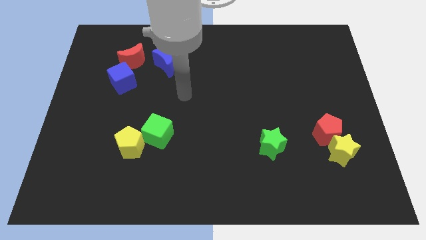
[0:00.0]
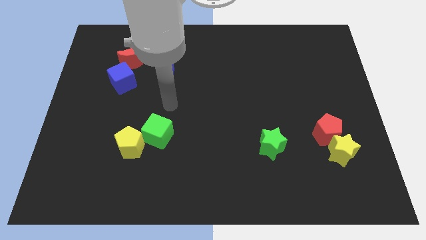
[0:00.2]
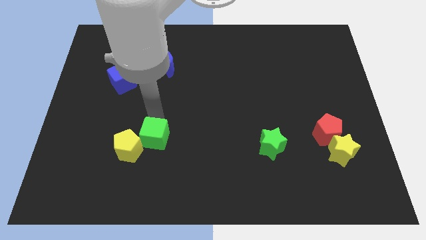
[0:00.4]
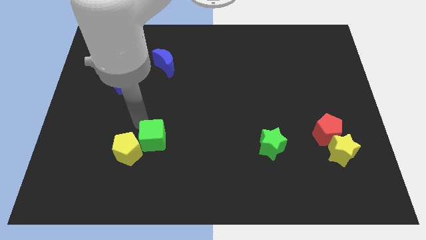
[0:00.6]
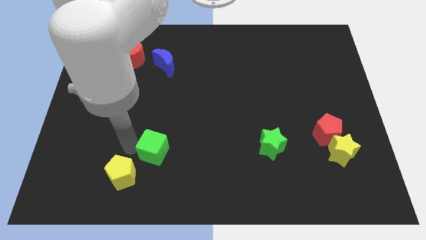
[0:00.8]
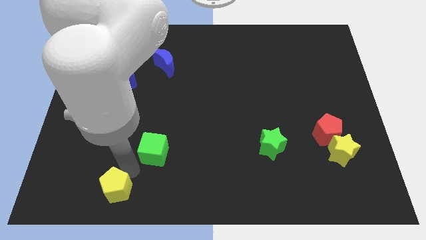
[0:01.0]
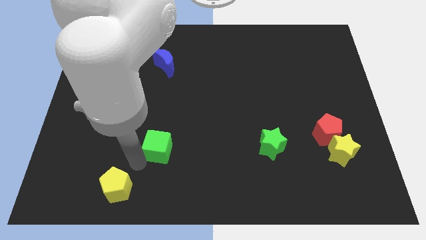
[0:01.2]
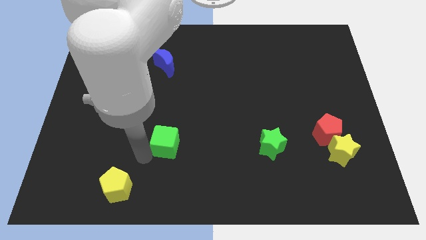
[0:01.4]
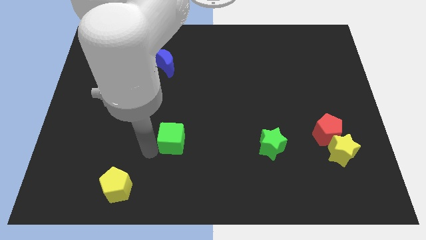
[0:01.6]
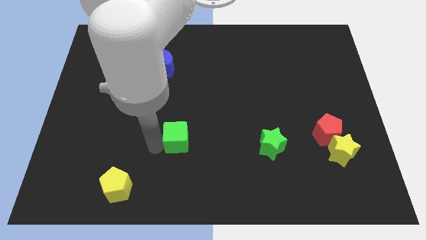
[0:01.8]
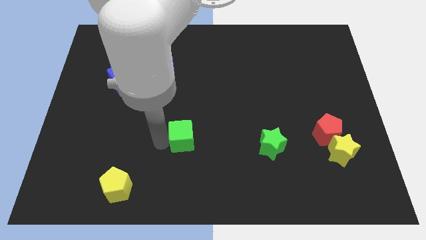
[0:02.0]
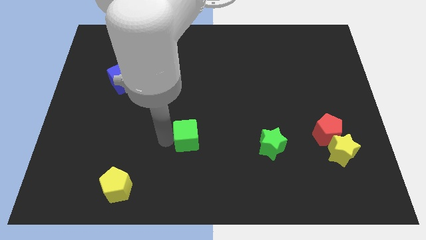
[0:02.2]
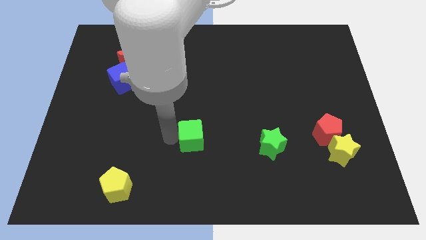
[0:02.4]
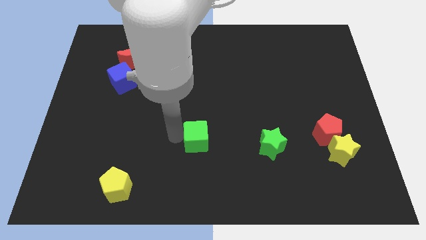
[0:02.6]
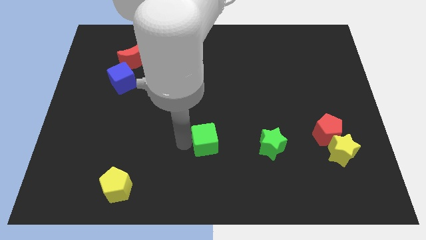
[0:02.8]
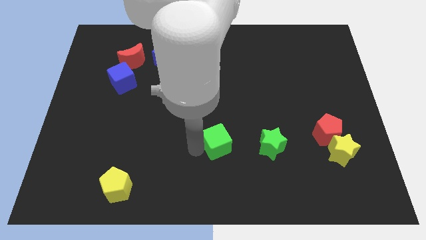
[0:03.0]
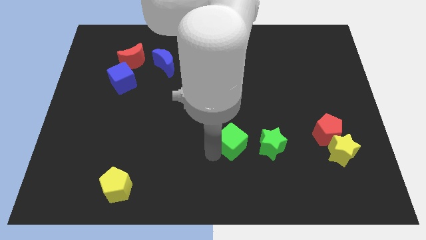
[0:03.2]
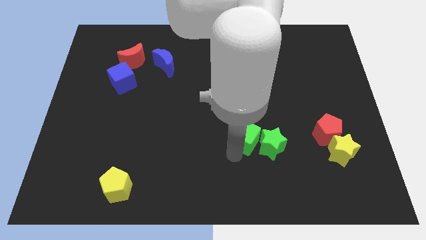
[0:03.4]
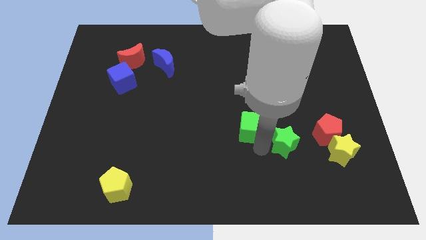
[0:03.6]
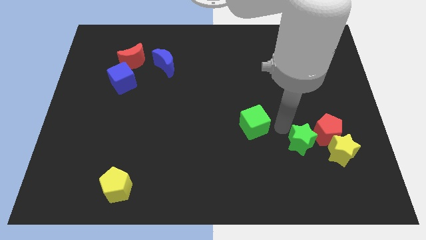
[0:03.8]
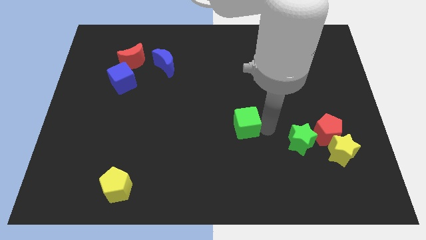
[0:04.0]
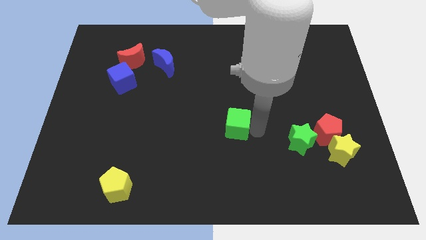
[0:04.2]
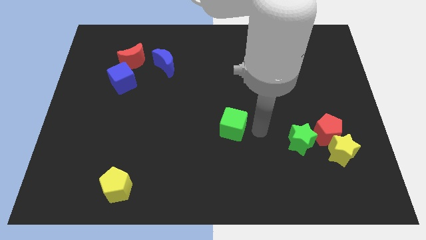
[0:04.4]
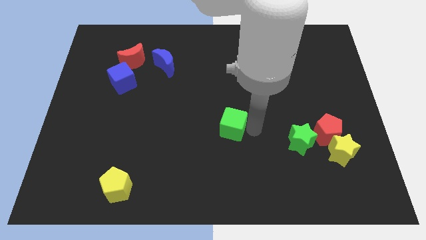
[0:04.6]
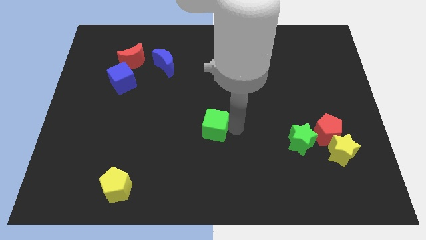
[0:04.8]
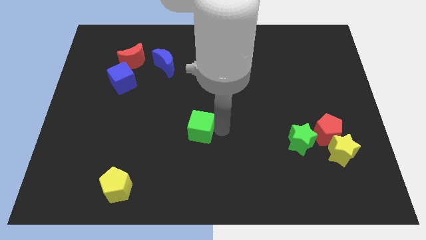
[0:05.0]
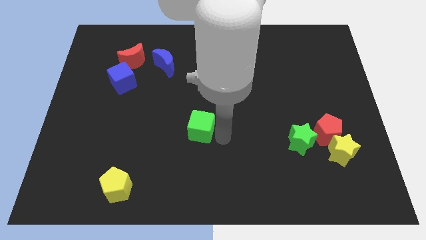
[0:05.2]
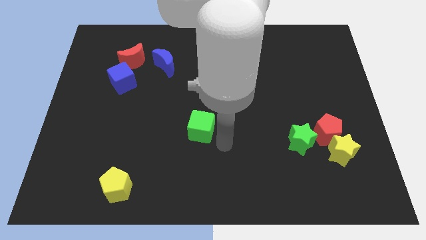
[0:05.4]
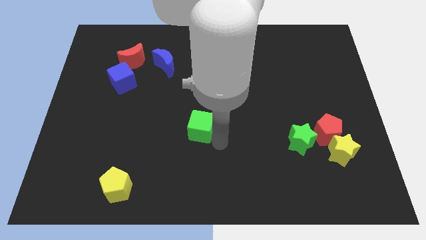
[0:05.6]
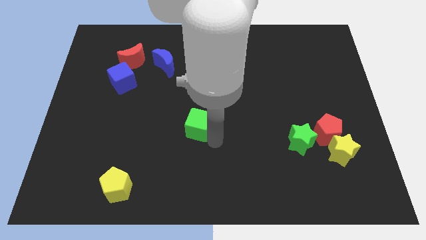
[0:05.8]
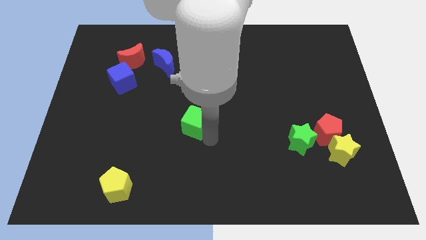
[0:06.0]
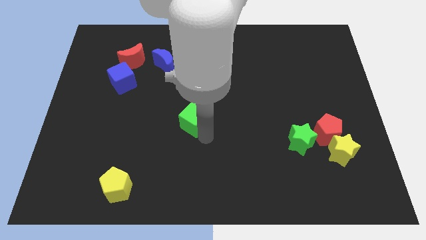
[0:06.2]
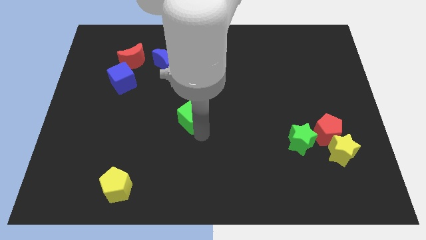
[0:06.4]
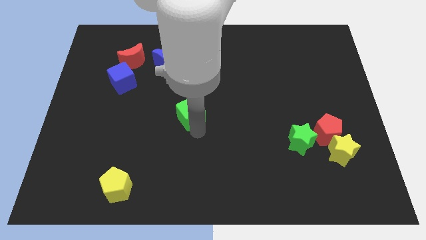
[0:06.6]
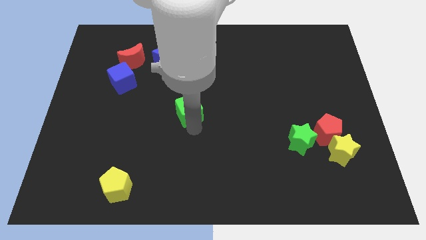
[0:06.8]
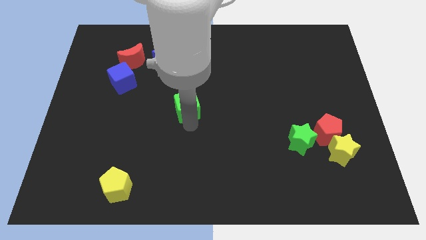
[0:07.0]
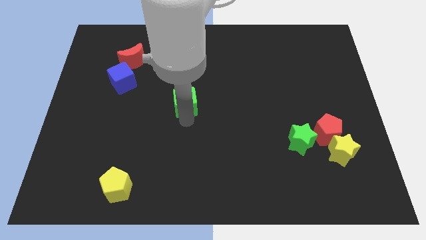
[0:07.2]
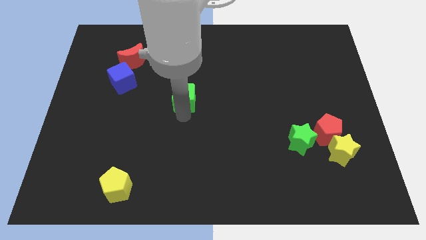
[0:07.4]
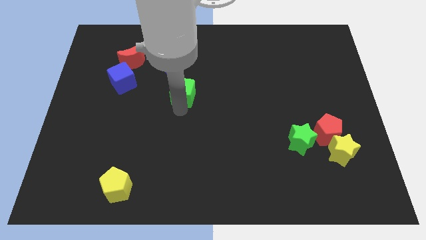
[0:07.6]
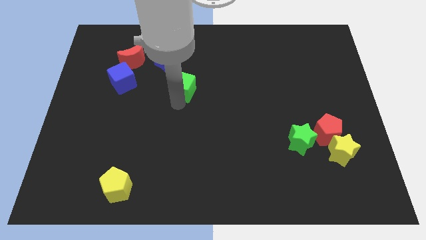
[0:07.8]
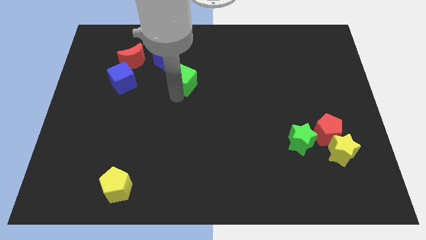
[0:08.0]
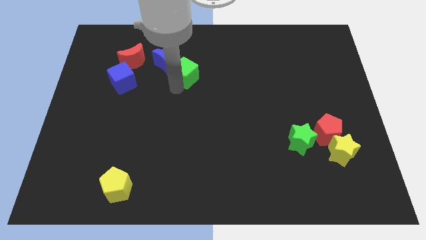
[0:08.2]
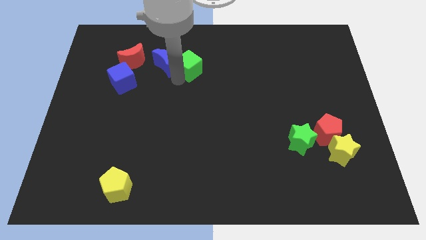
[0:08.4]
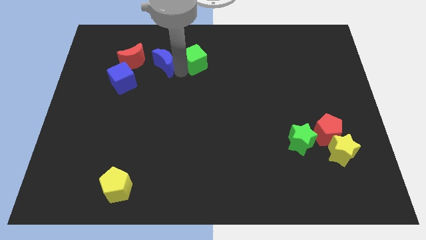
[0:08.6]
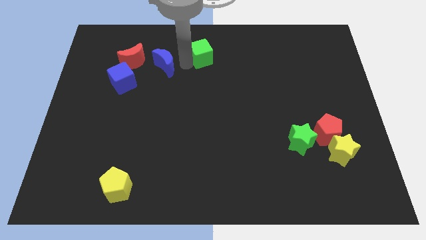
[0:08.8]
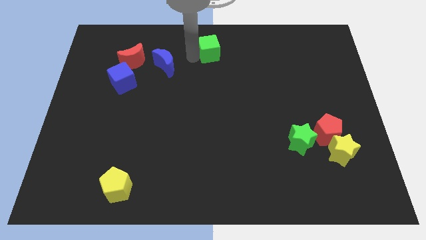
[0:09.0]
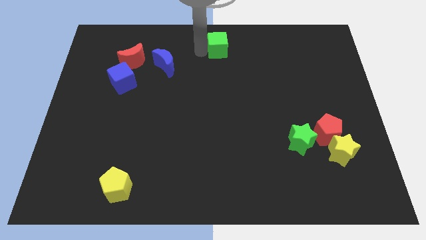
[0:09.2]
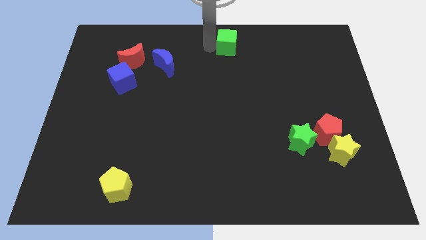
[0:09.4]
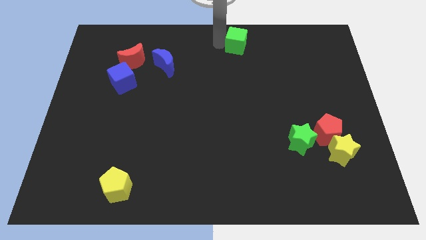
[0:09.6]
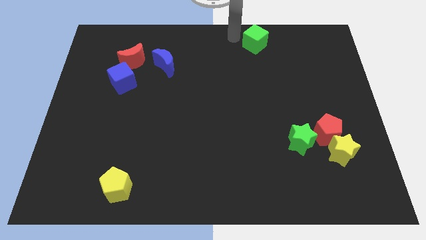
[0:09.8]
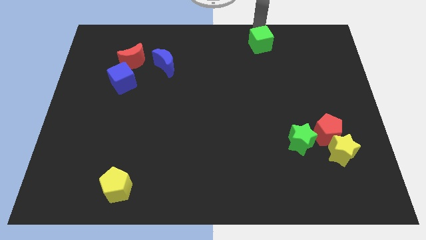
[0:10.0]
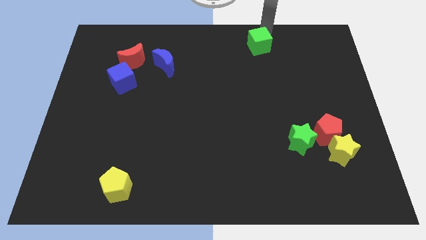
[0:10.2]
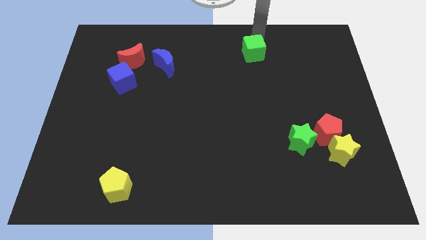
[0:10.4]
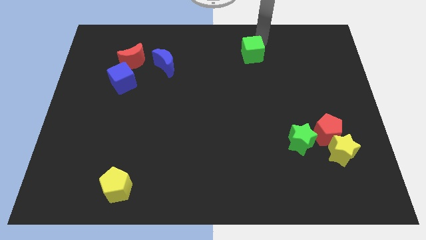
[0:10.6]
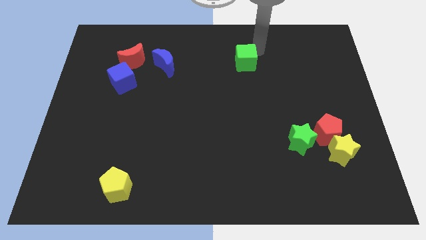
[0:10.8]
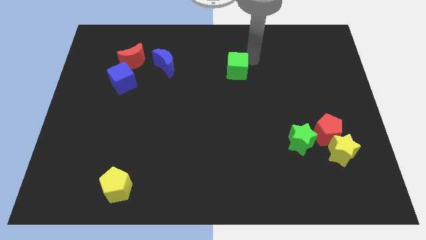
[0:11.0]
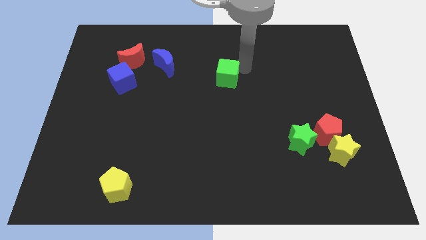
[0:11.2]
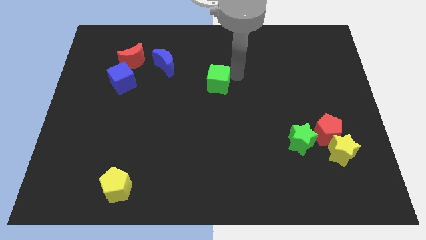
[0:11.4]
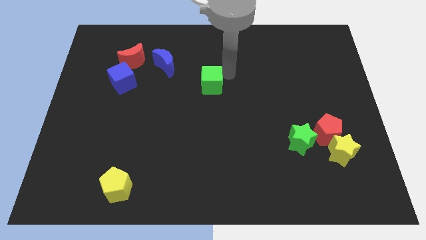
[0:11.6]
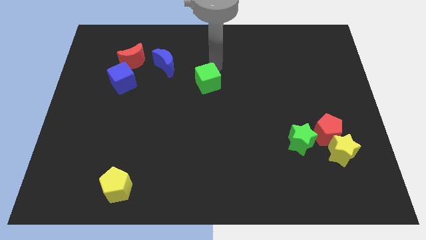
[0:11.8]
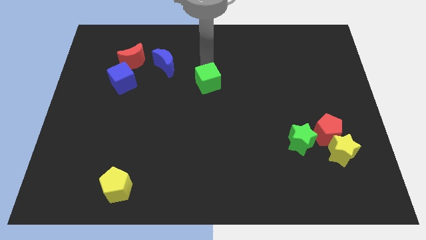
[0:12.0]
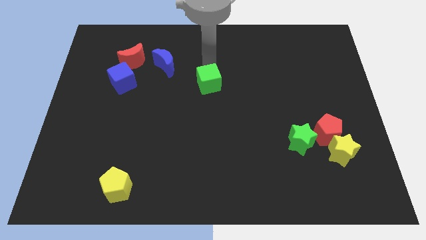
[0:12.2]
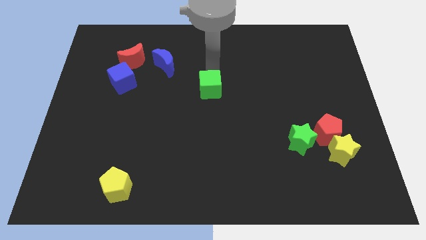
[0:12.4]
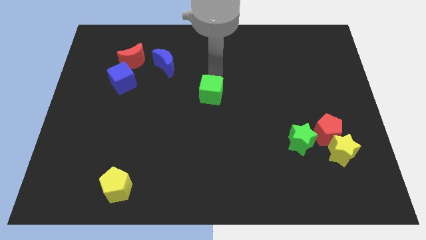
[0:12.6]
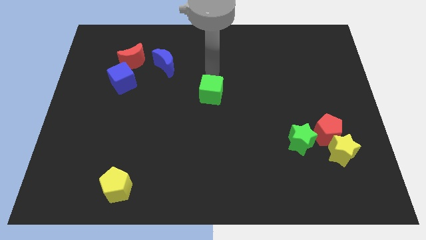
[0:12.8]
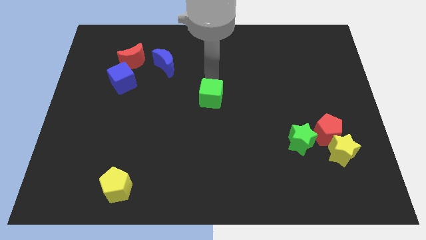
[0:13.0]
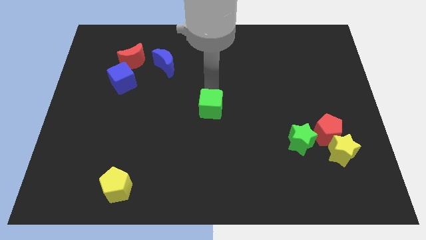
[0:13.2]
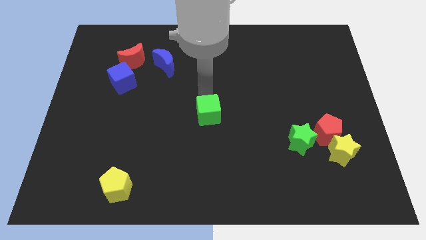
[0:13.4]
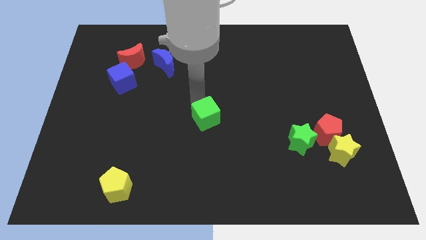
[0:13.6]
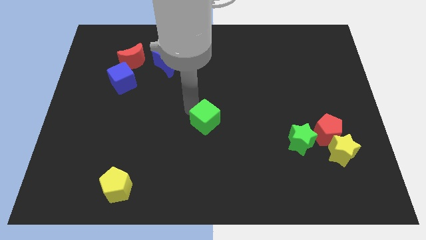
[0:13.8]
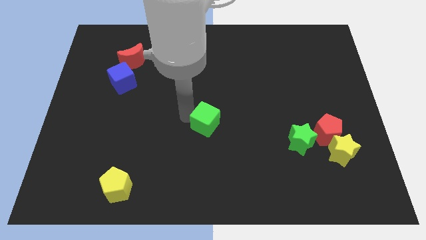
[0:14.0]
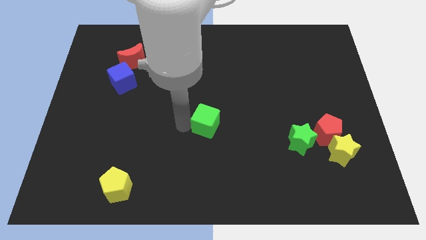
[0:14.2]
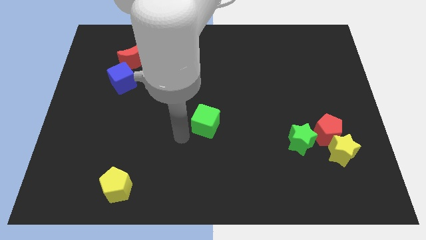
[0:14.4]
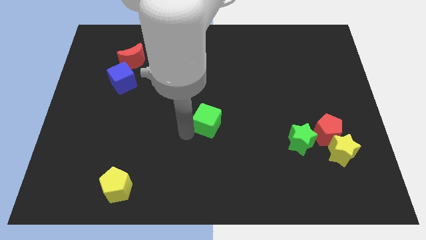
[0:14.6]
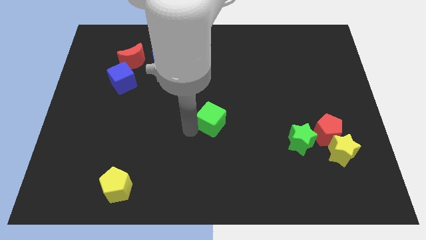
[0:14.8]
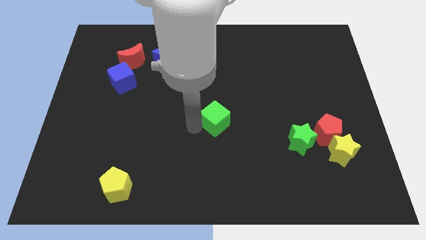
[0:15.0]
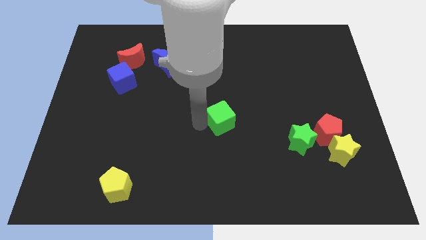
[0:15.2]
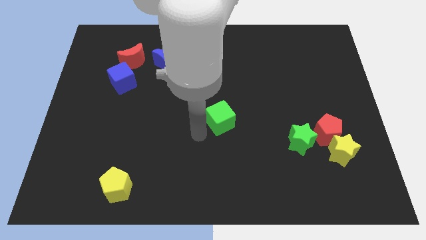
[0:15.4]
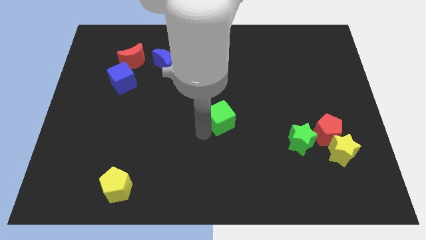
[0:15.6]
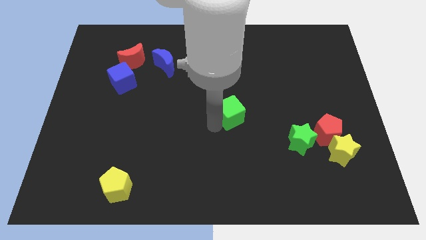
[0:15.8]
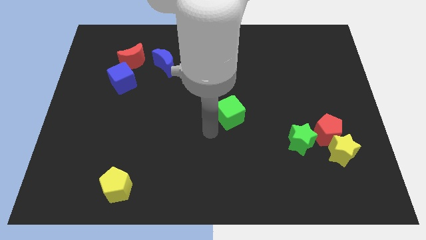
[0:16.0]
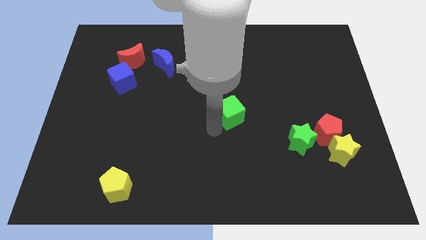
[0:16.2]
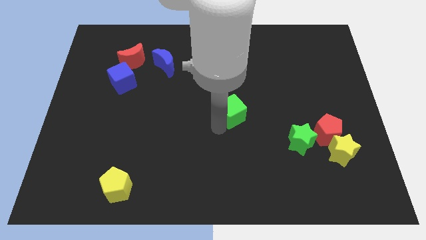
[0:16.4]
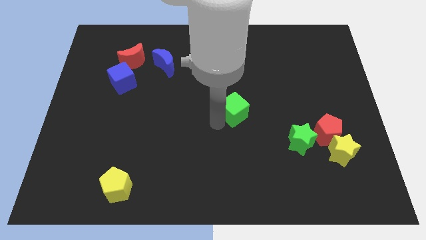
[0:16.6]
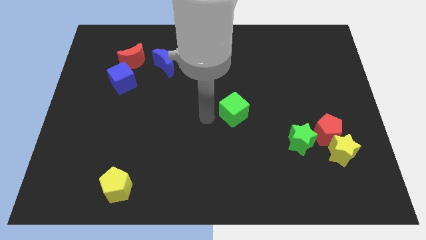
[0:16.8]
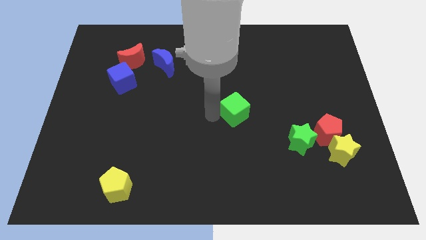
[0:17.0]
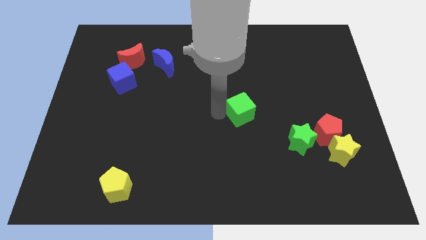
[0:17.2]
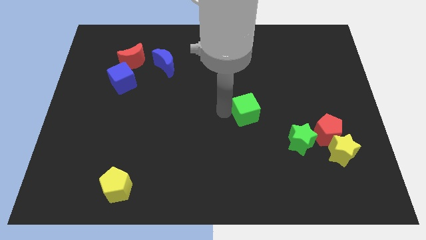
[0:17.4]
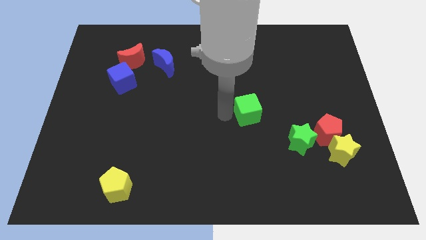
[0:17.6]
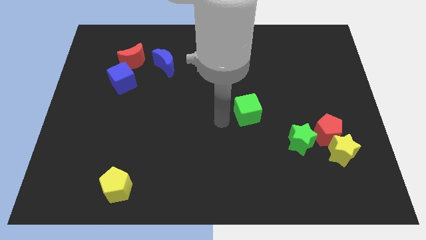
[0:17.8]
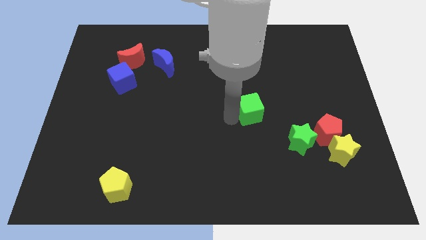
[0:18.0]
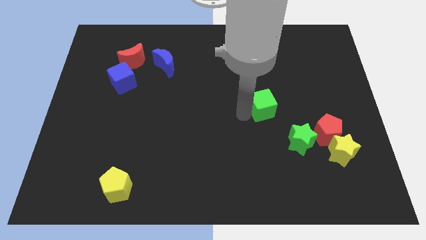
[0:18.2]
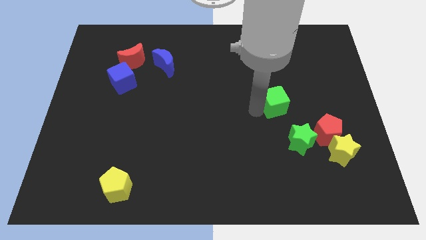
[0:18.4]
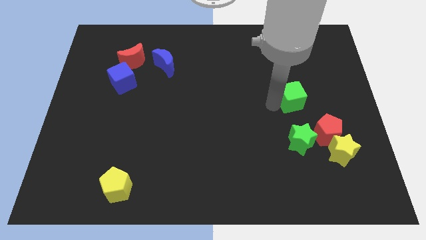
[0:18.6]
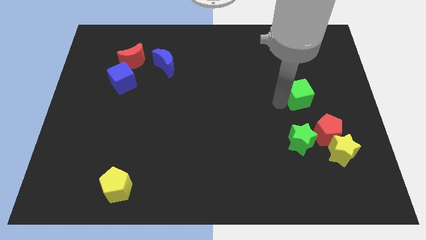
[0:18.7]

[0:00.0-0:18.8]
put the green cube above the red pentagon
